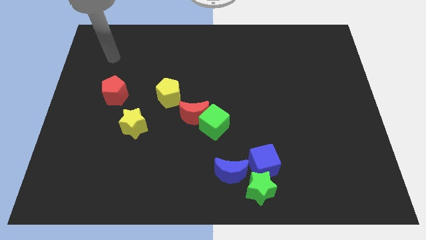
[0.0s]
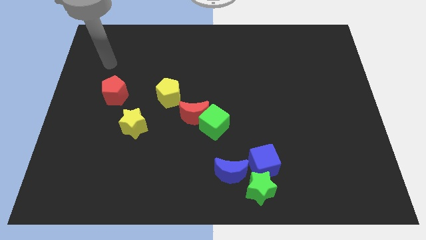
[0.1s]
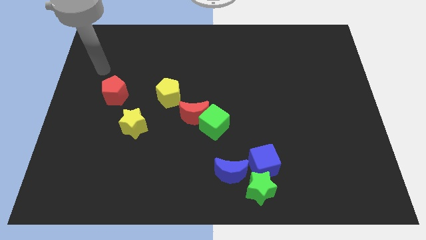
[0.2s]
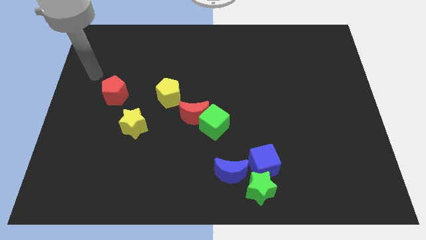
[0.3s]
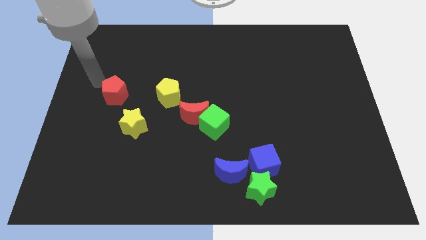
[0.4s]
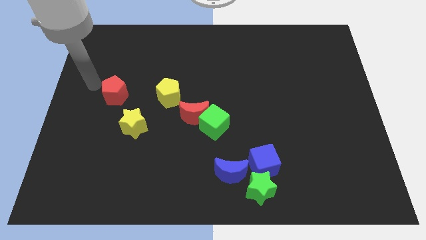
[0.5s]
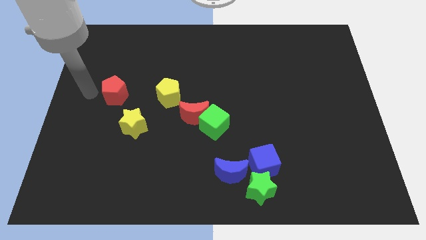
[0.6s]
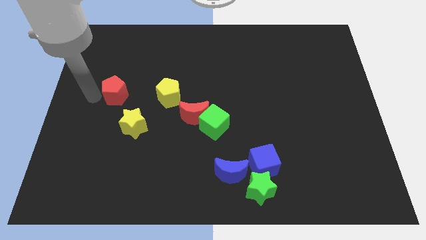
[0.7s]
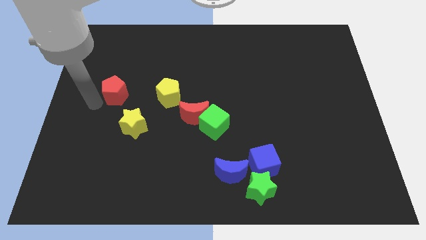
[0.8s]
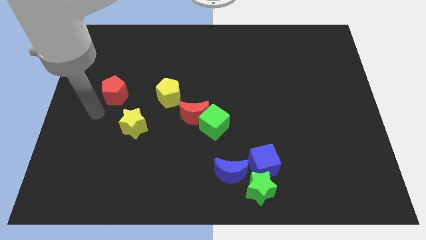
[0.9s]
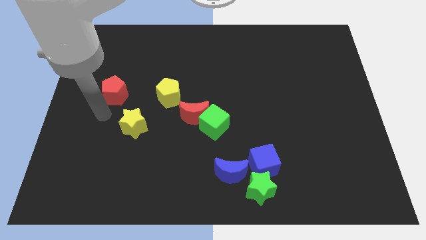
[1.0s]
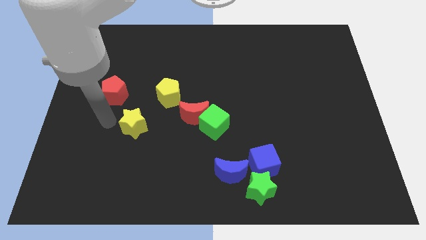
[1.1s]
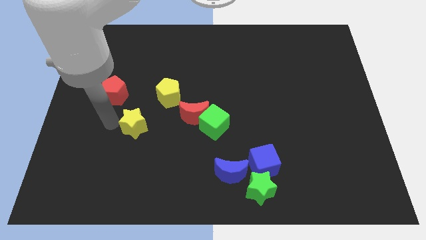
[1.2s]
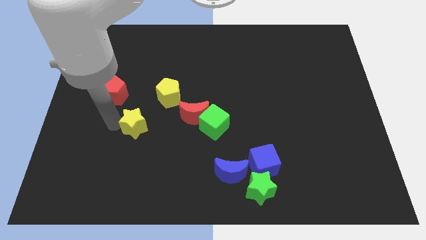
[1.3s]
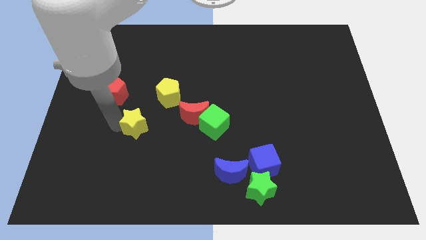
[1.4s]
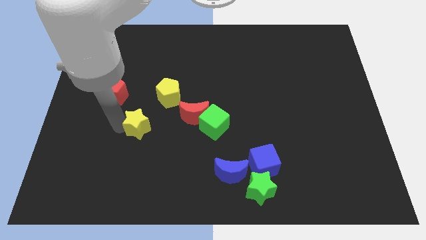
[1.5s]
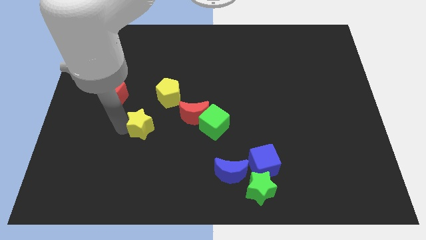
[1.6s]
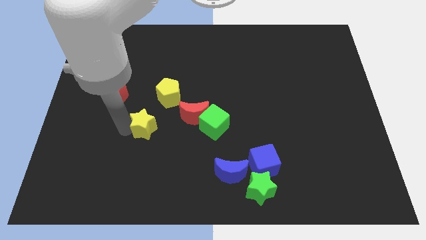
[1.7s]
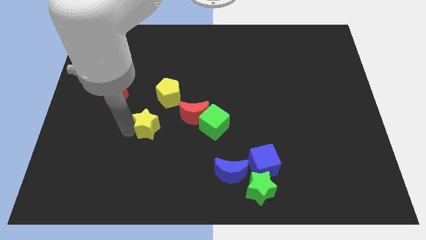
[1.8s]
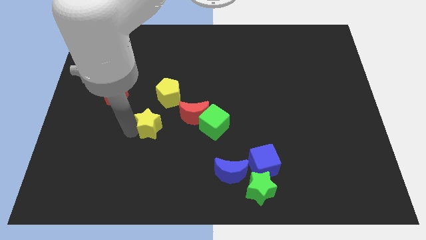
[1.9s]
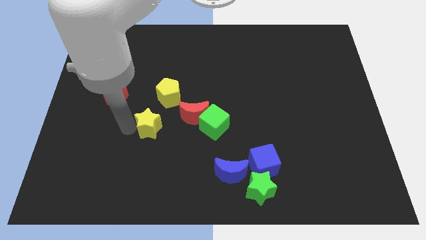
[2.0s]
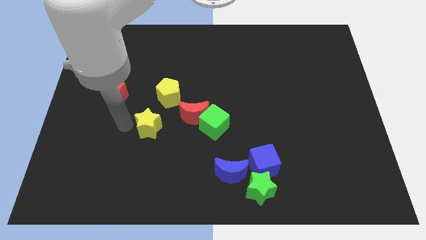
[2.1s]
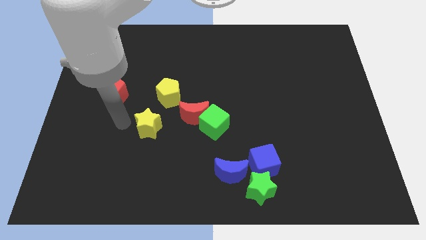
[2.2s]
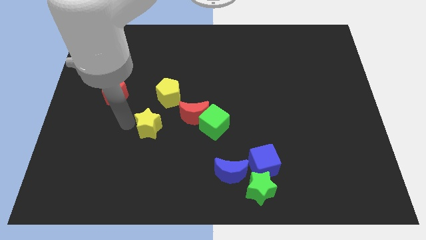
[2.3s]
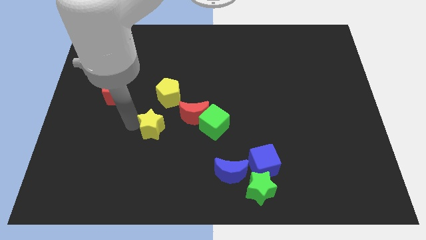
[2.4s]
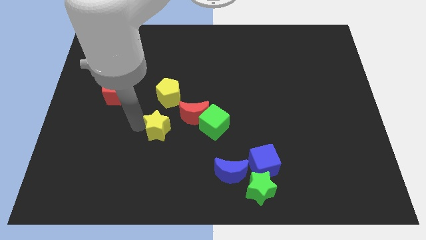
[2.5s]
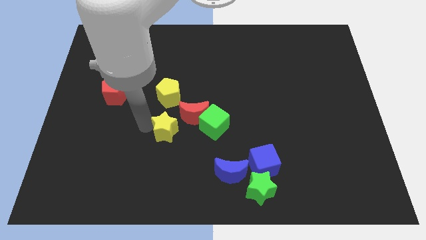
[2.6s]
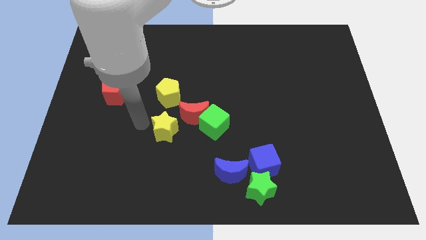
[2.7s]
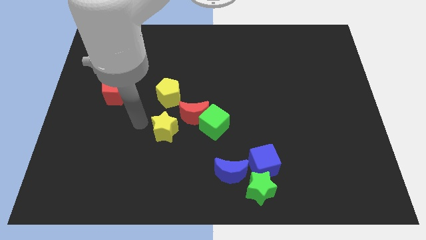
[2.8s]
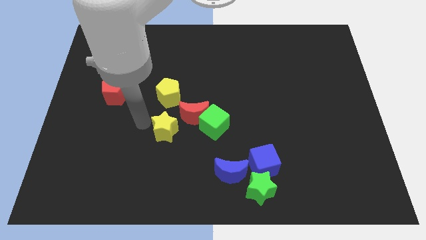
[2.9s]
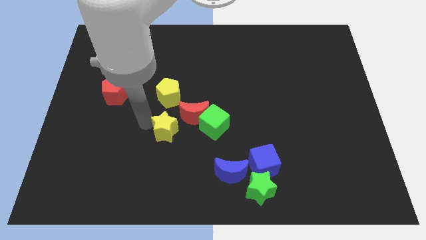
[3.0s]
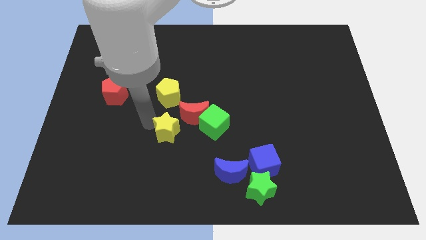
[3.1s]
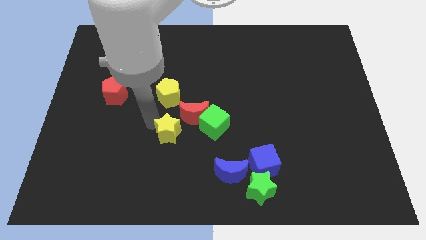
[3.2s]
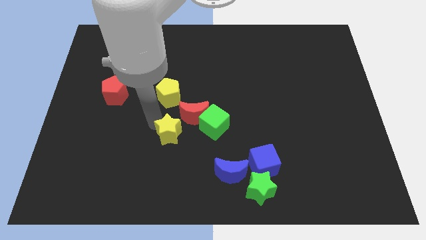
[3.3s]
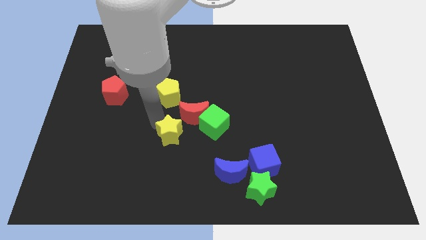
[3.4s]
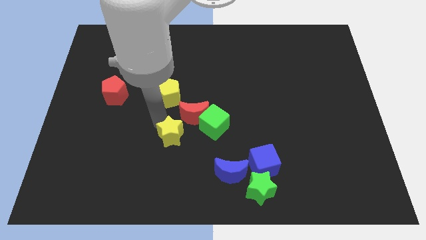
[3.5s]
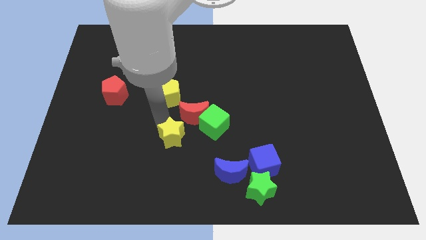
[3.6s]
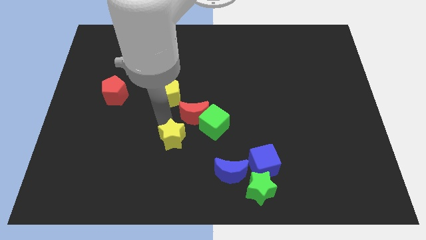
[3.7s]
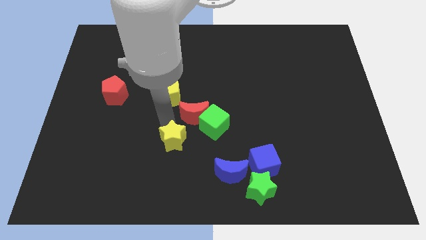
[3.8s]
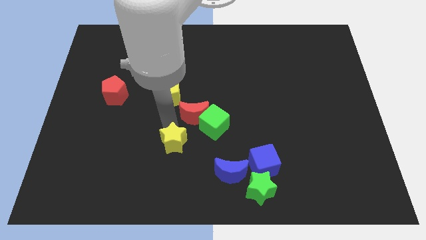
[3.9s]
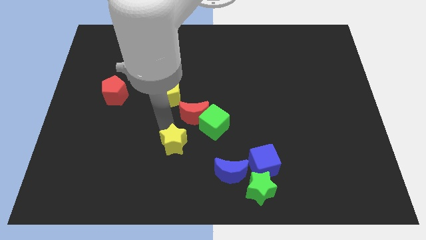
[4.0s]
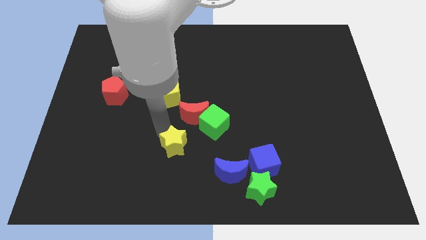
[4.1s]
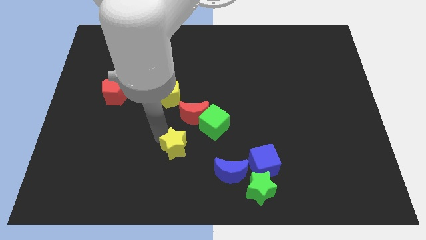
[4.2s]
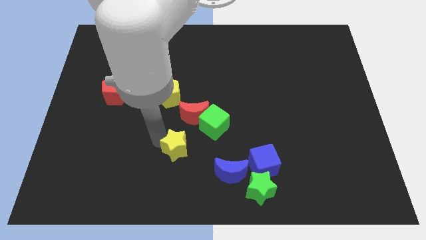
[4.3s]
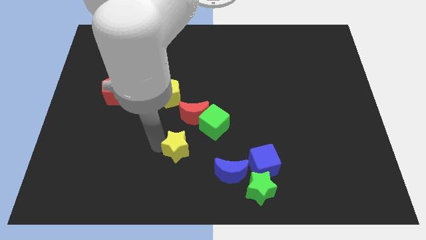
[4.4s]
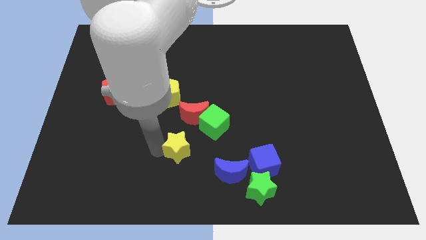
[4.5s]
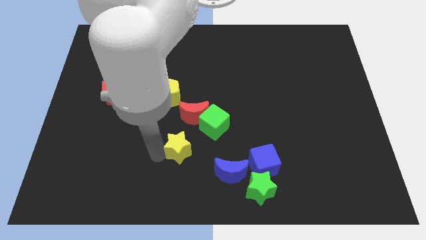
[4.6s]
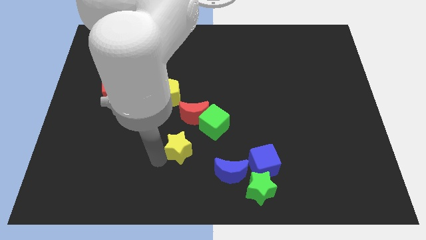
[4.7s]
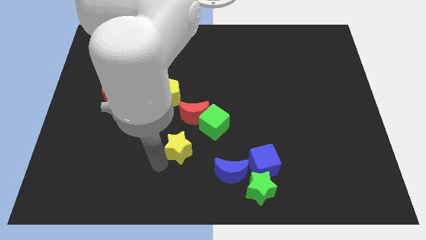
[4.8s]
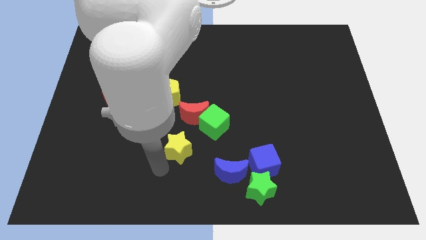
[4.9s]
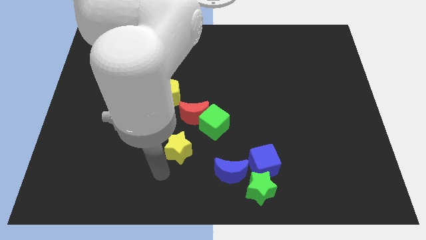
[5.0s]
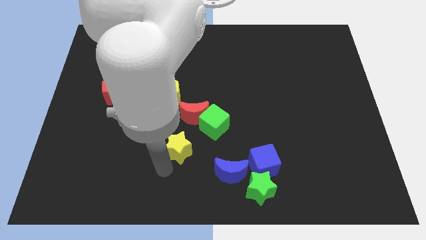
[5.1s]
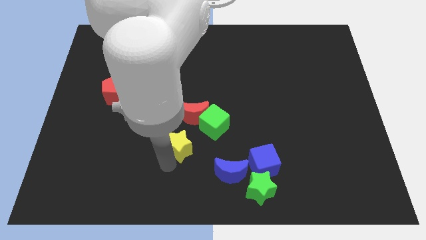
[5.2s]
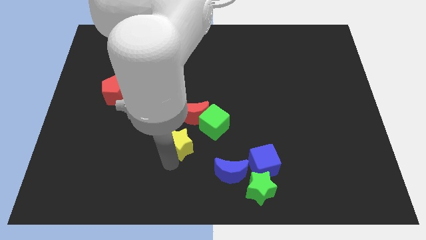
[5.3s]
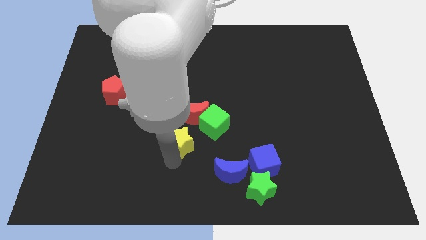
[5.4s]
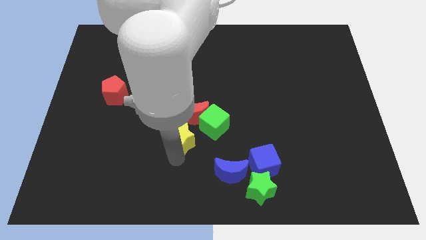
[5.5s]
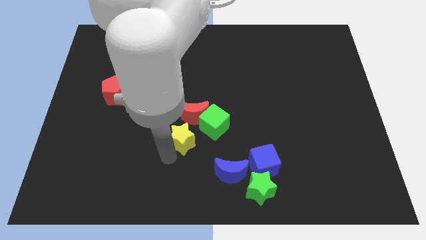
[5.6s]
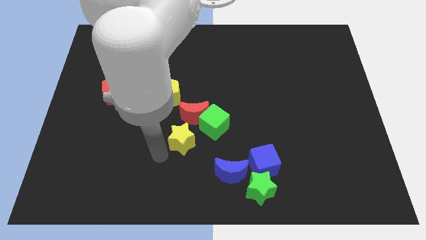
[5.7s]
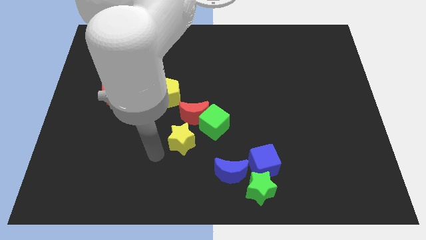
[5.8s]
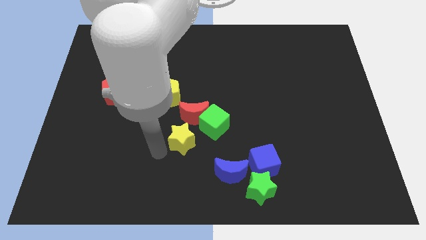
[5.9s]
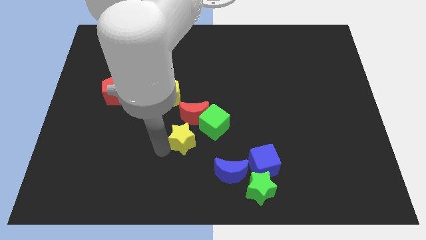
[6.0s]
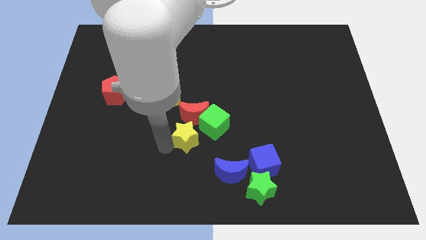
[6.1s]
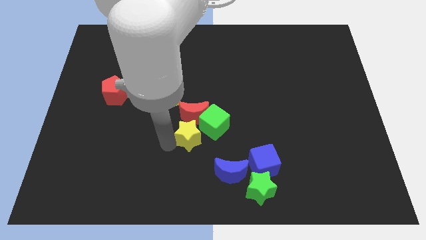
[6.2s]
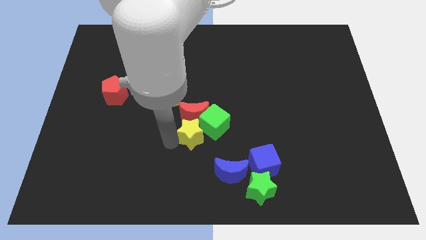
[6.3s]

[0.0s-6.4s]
push the yellow star to the green cube

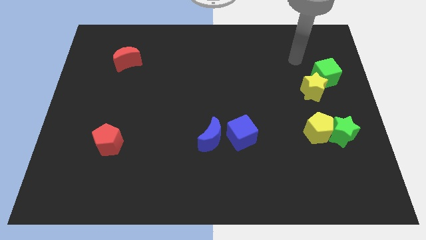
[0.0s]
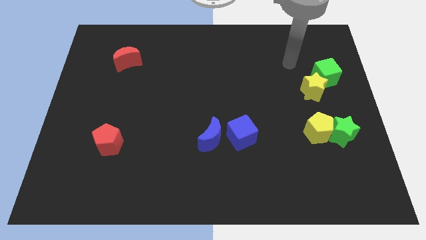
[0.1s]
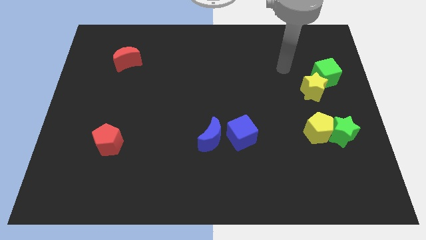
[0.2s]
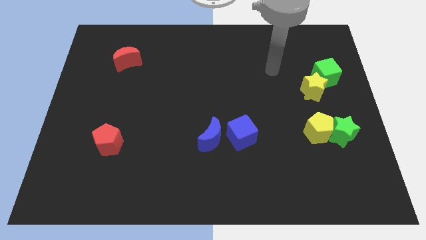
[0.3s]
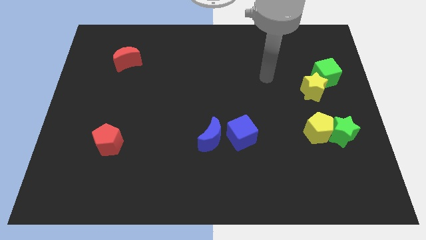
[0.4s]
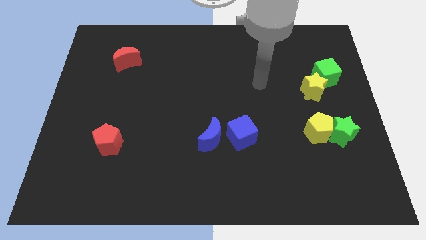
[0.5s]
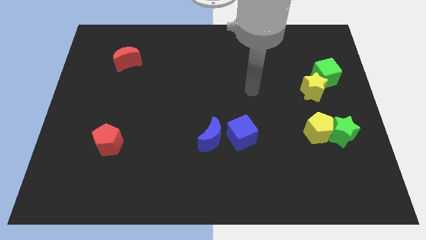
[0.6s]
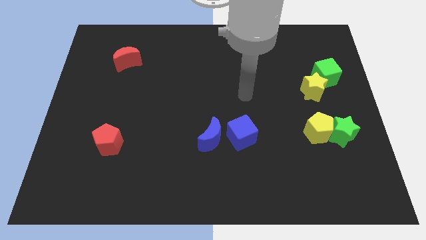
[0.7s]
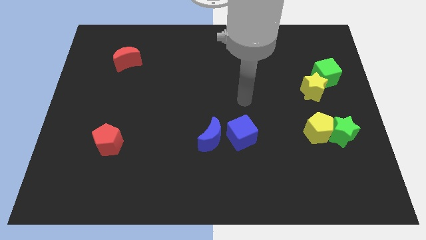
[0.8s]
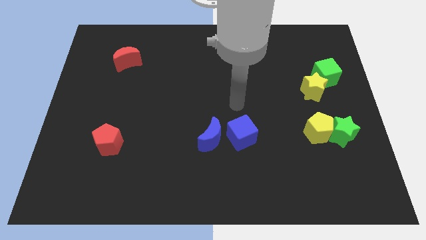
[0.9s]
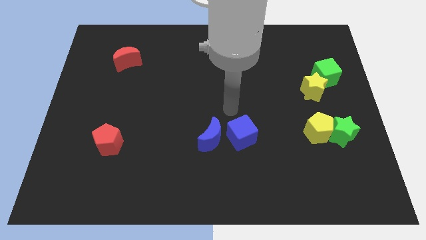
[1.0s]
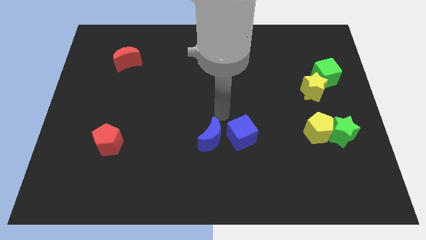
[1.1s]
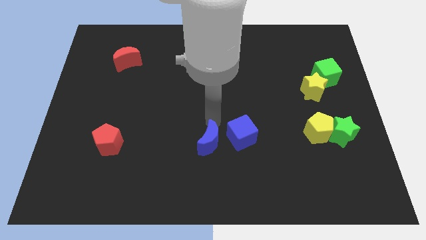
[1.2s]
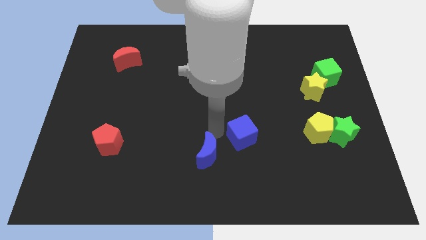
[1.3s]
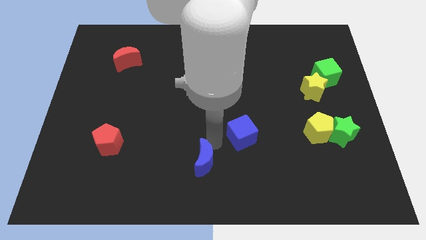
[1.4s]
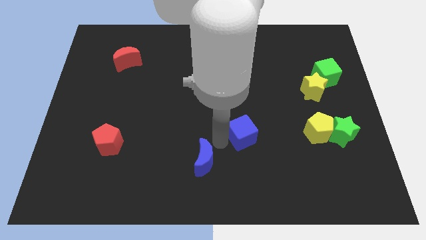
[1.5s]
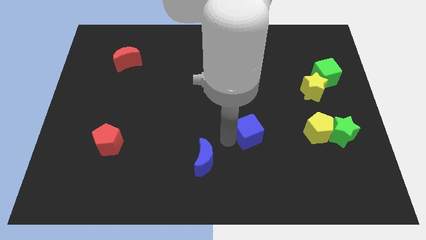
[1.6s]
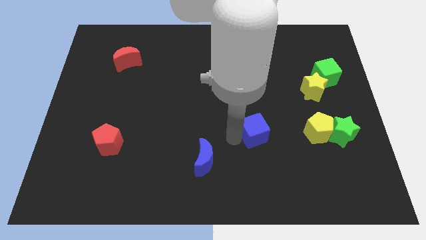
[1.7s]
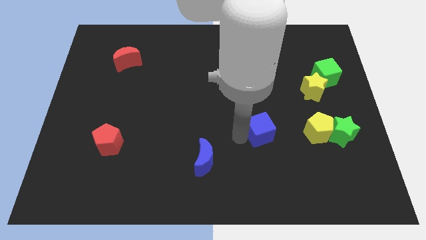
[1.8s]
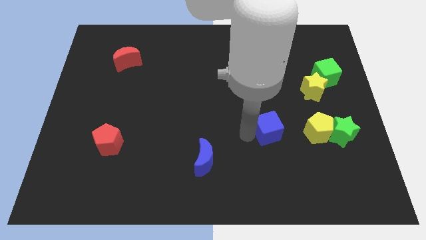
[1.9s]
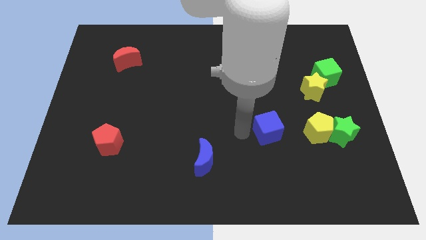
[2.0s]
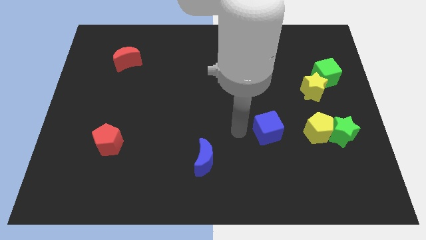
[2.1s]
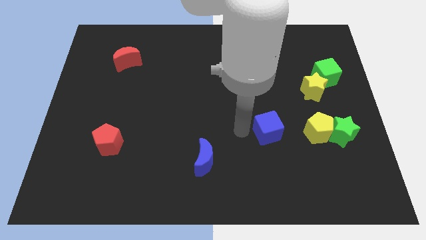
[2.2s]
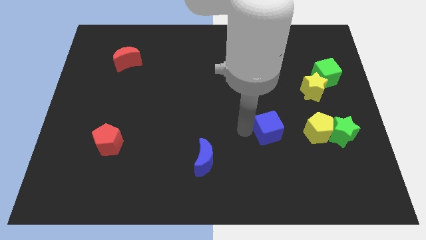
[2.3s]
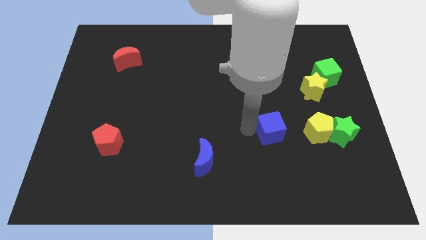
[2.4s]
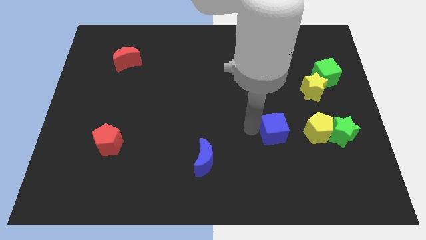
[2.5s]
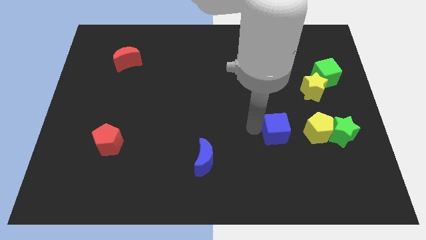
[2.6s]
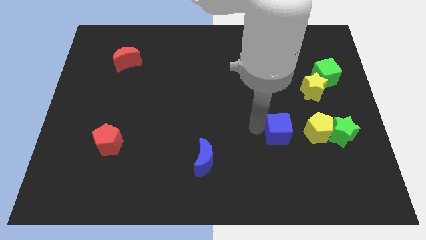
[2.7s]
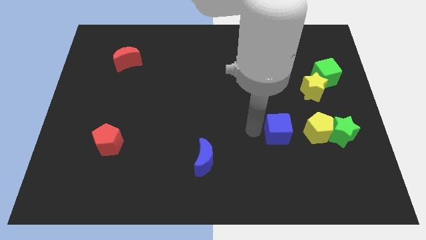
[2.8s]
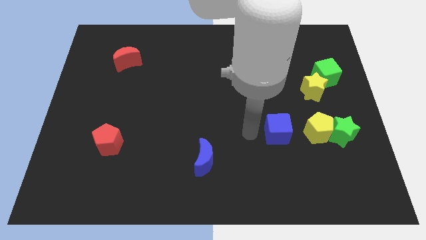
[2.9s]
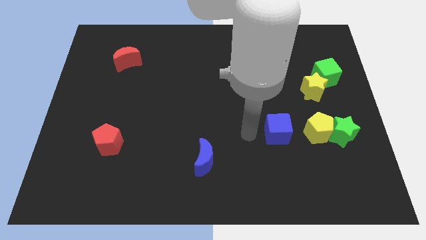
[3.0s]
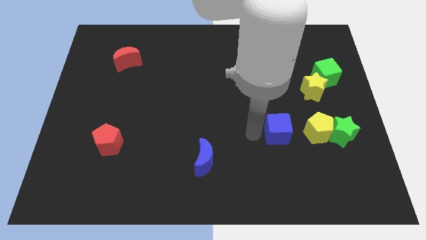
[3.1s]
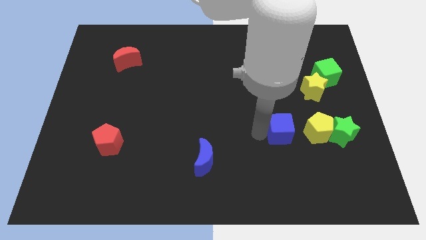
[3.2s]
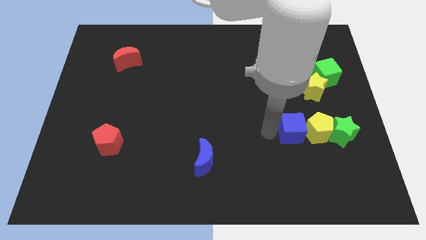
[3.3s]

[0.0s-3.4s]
move the blue cube to the yellow pentagon
